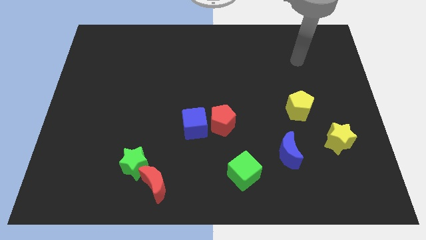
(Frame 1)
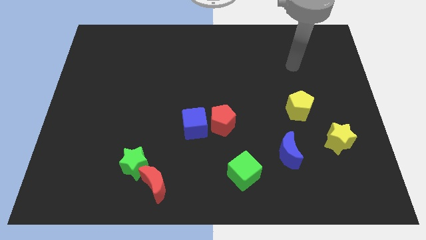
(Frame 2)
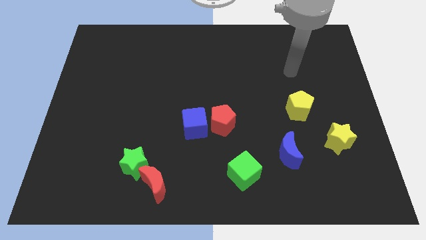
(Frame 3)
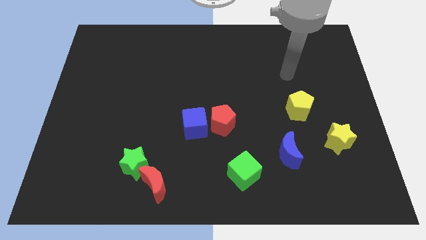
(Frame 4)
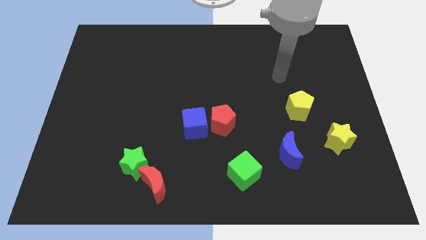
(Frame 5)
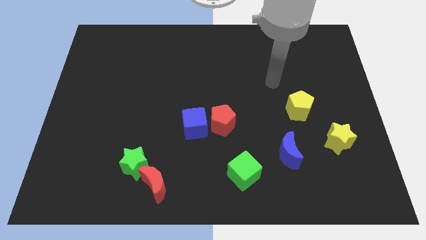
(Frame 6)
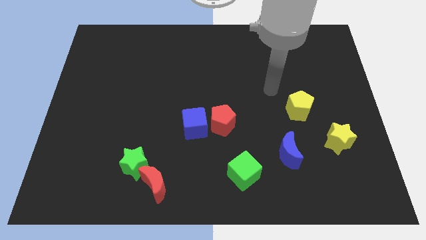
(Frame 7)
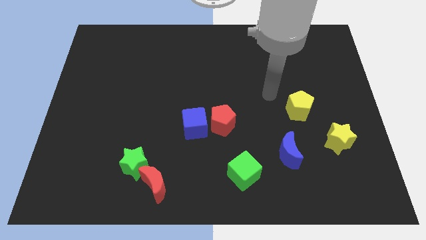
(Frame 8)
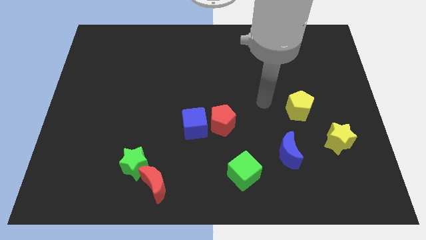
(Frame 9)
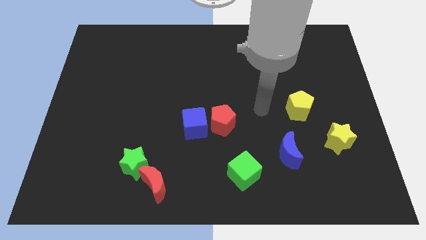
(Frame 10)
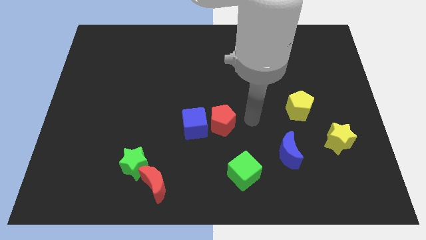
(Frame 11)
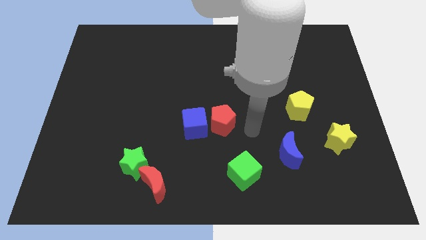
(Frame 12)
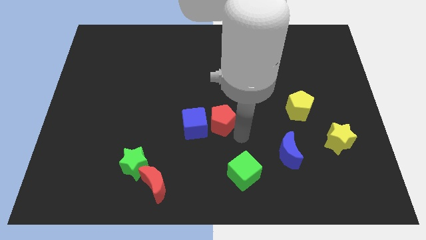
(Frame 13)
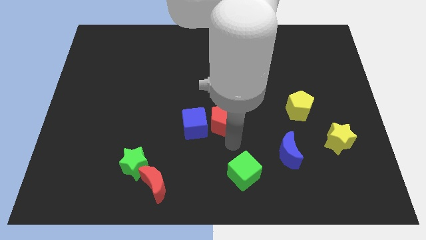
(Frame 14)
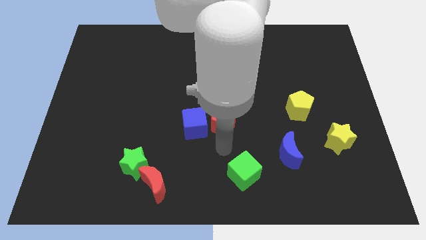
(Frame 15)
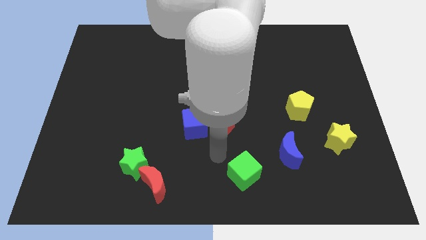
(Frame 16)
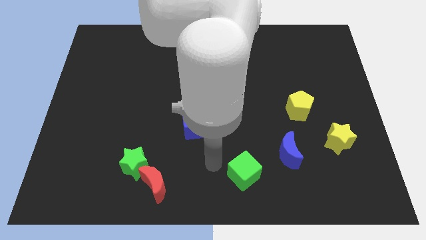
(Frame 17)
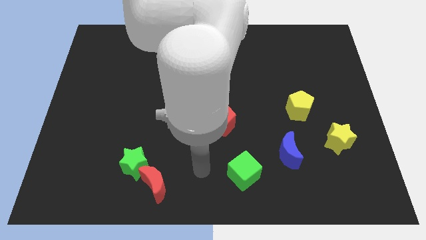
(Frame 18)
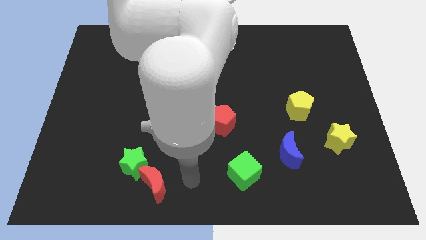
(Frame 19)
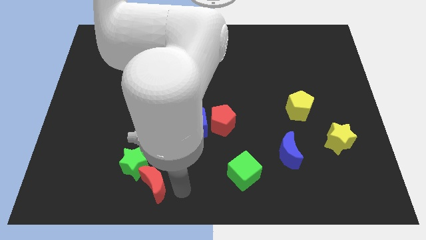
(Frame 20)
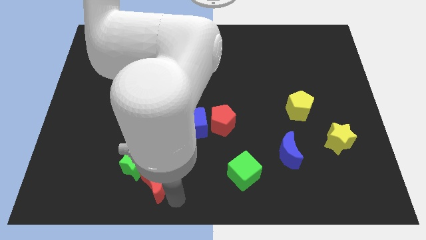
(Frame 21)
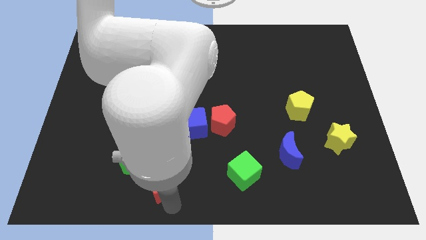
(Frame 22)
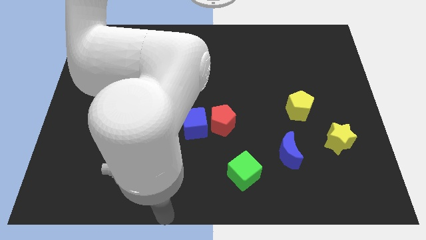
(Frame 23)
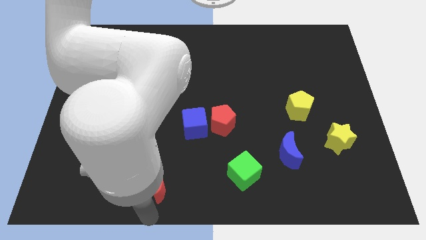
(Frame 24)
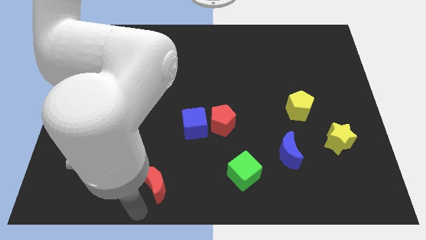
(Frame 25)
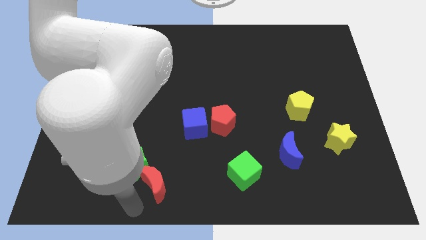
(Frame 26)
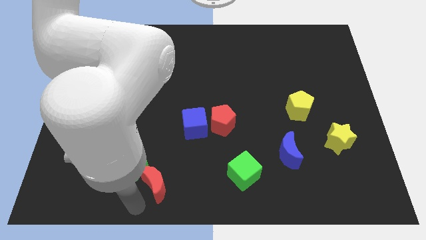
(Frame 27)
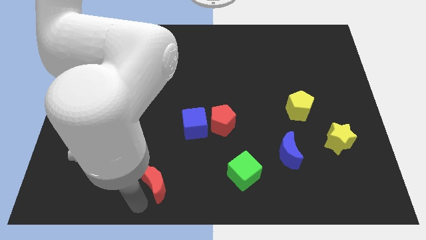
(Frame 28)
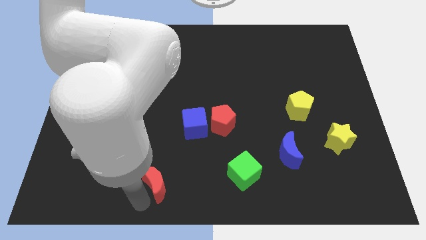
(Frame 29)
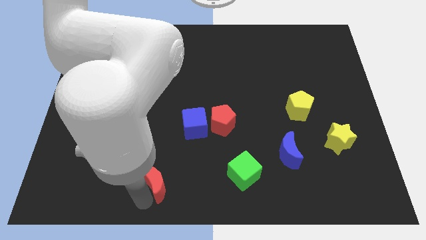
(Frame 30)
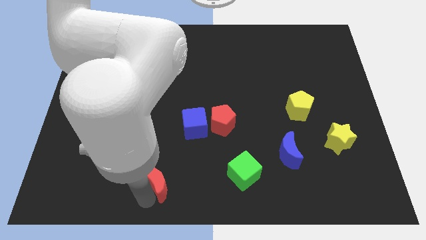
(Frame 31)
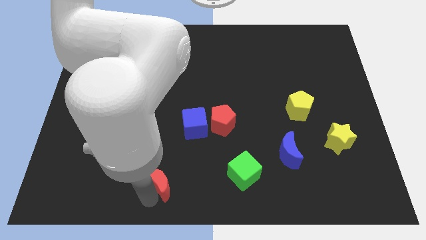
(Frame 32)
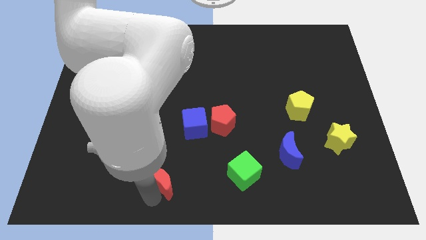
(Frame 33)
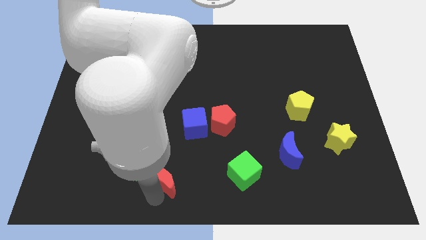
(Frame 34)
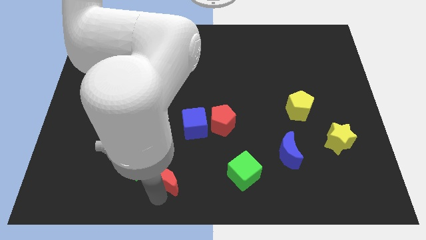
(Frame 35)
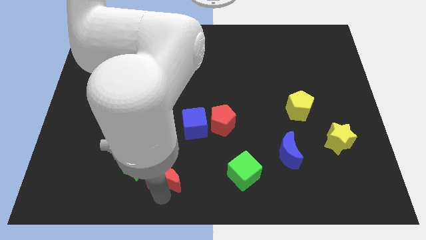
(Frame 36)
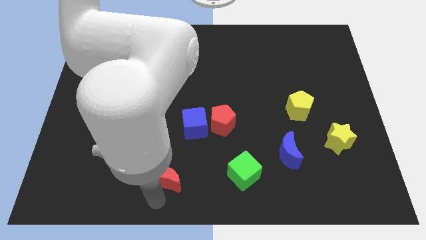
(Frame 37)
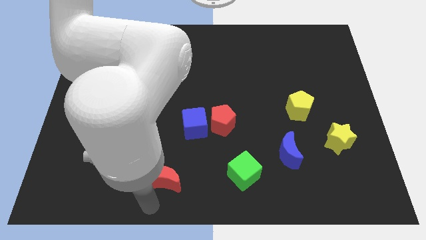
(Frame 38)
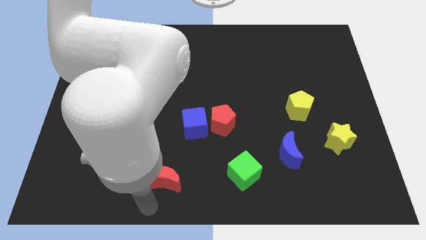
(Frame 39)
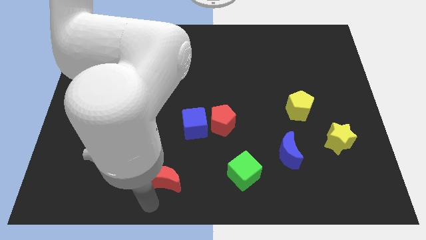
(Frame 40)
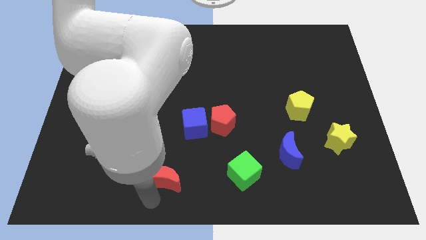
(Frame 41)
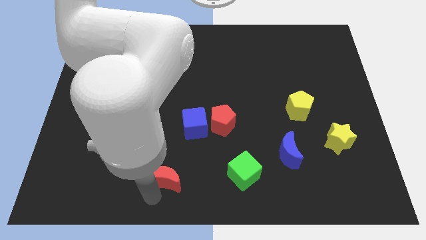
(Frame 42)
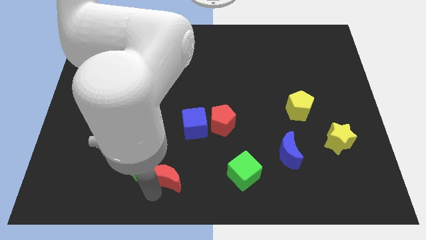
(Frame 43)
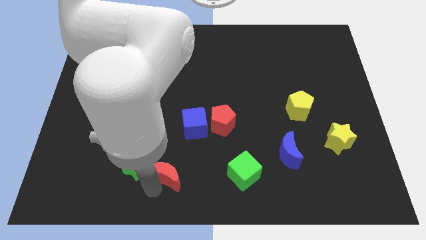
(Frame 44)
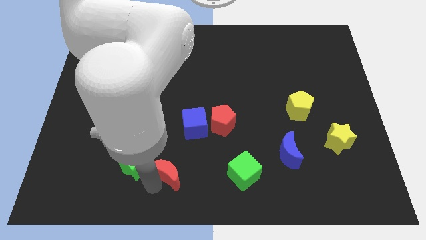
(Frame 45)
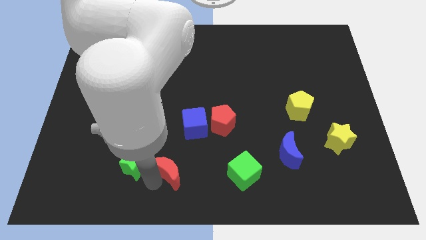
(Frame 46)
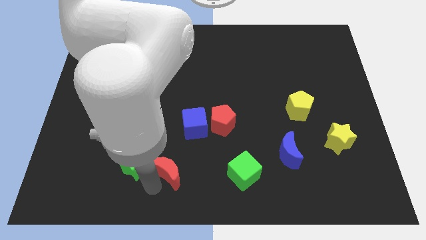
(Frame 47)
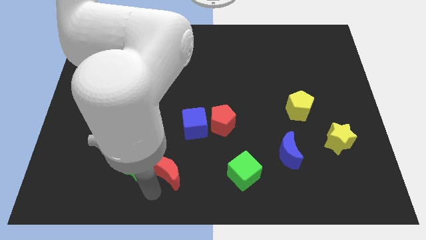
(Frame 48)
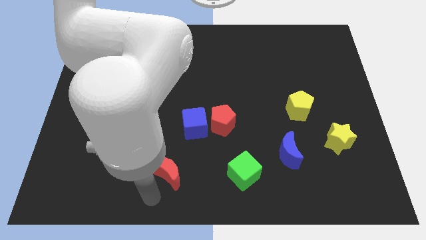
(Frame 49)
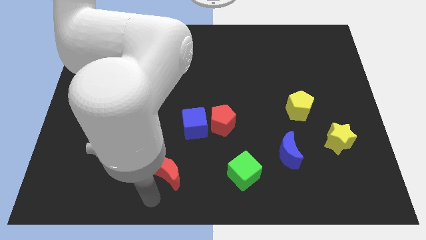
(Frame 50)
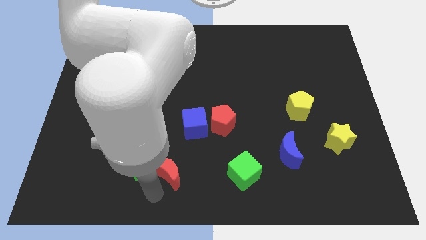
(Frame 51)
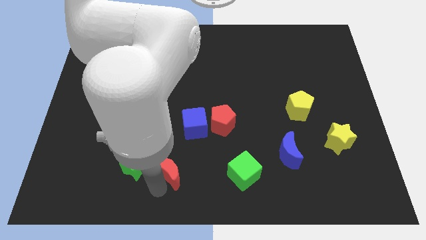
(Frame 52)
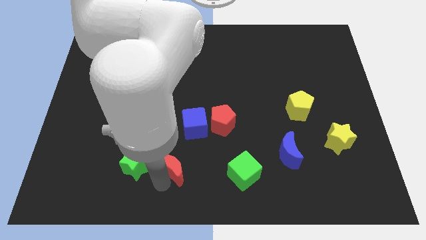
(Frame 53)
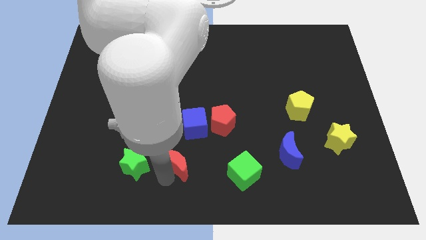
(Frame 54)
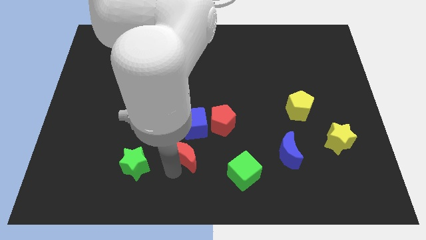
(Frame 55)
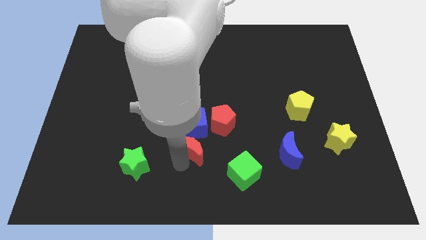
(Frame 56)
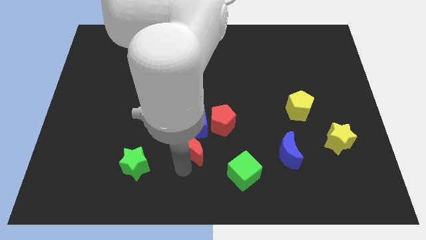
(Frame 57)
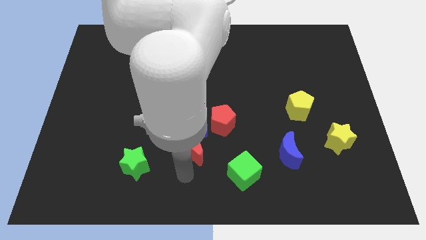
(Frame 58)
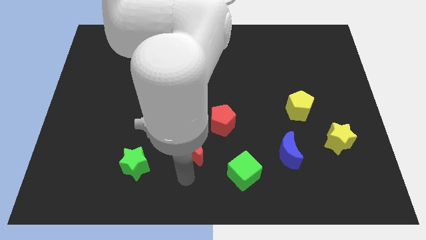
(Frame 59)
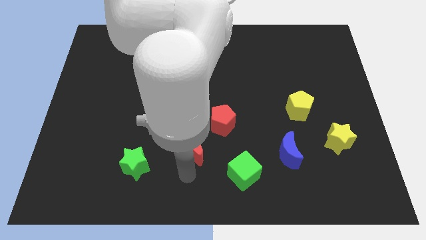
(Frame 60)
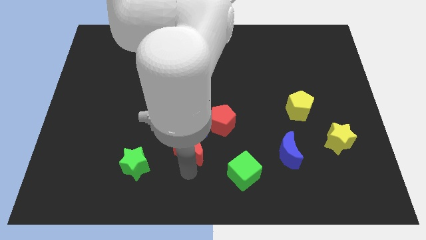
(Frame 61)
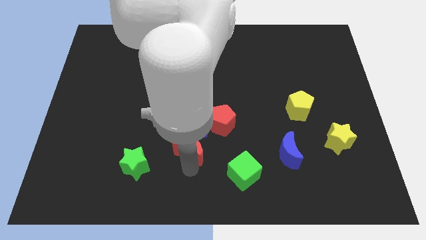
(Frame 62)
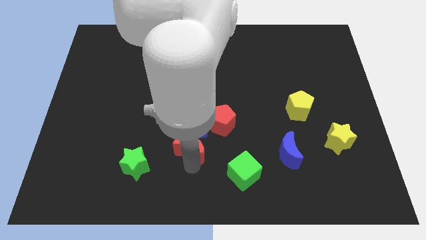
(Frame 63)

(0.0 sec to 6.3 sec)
move the red moon towards the blue cube

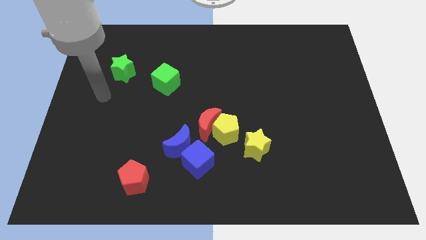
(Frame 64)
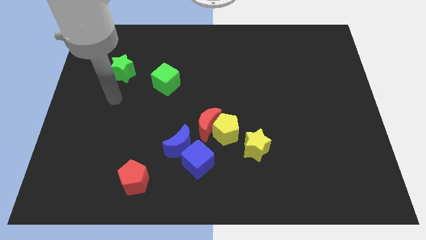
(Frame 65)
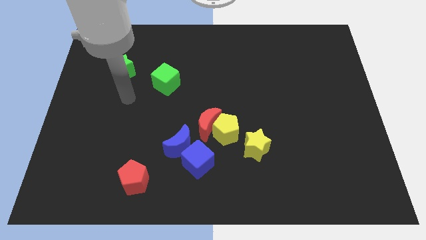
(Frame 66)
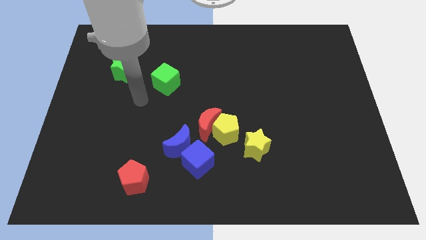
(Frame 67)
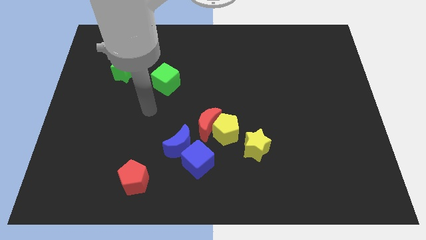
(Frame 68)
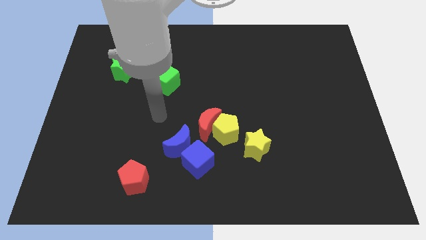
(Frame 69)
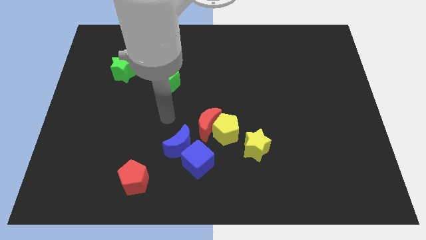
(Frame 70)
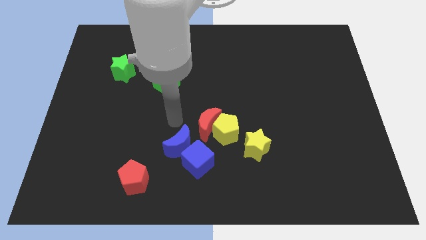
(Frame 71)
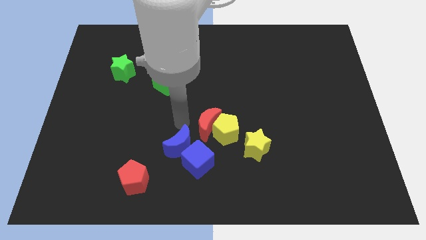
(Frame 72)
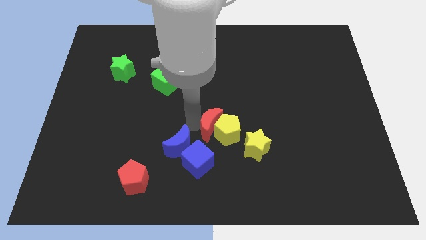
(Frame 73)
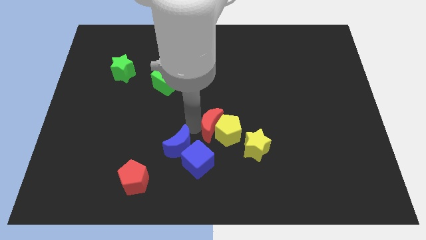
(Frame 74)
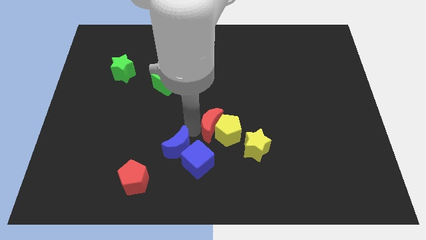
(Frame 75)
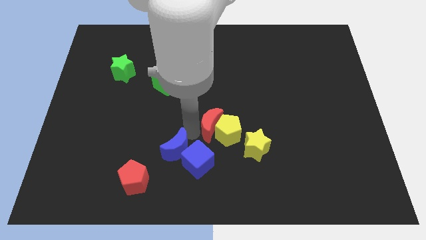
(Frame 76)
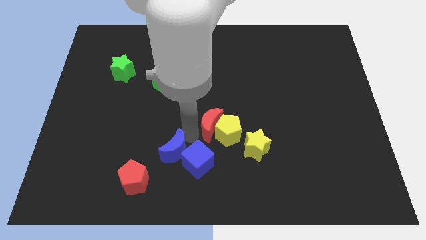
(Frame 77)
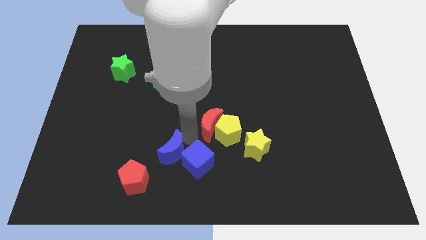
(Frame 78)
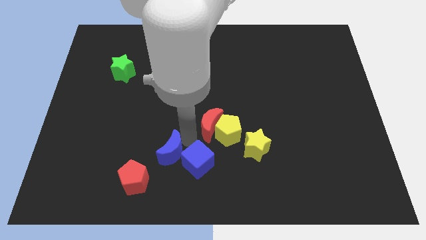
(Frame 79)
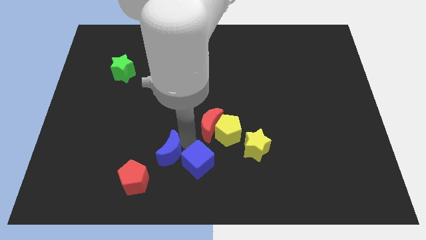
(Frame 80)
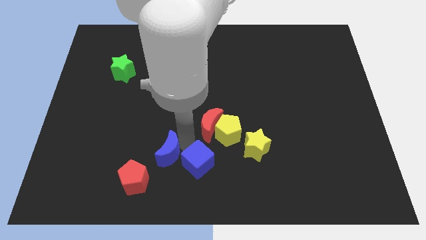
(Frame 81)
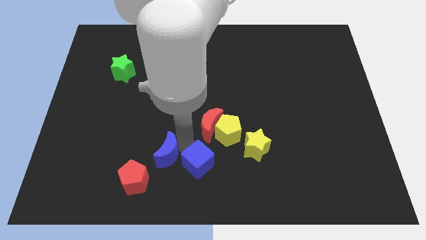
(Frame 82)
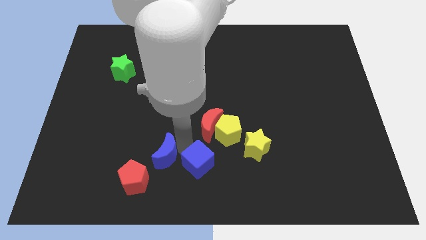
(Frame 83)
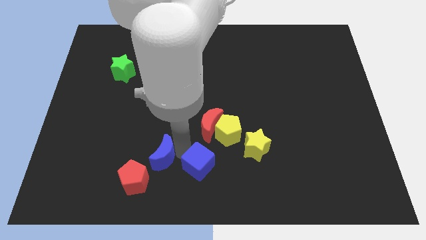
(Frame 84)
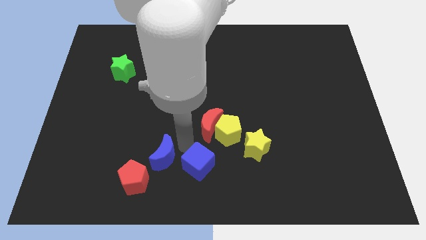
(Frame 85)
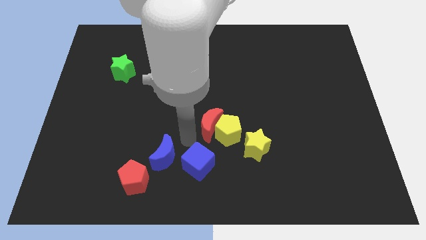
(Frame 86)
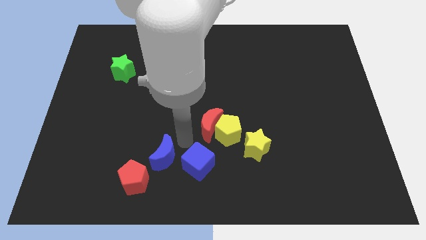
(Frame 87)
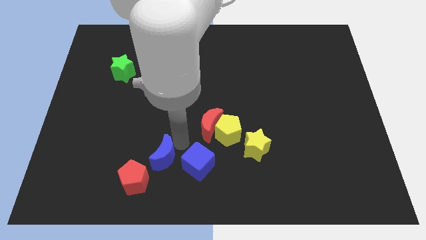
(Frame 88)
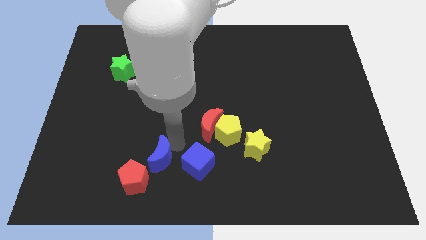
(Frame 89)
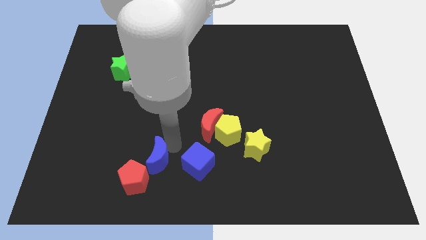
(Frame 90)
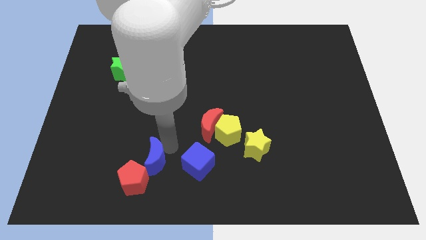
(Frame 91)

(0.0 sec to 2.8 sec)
push the blue moon close to the red pentagon
